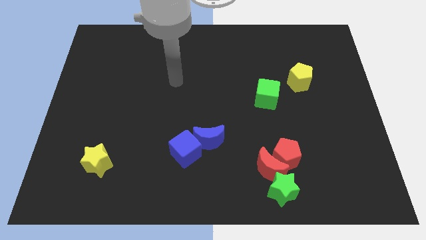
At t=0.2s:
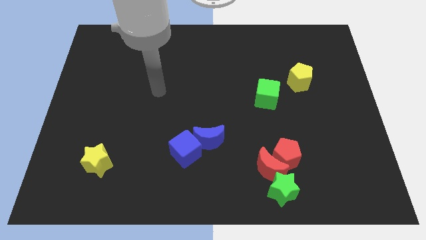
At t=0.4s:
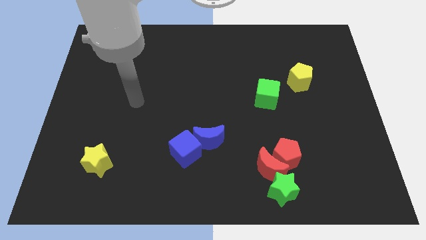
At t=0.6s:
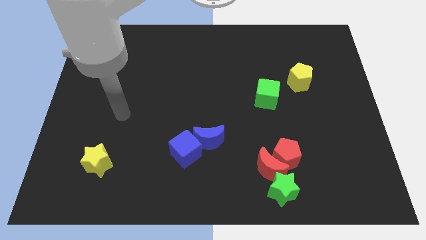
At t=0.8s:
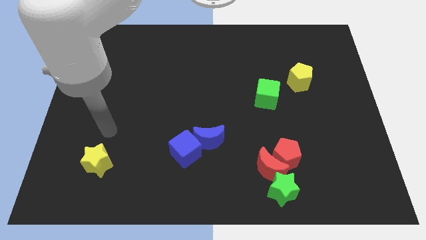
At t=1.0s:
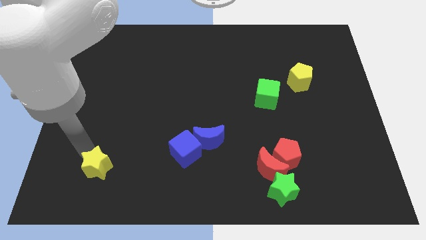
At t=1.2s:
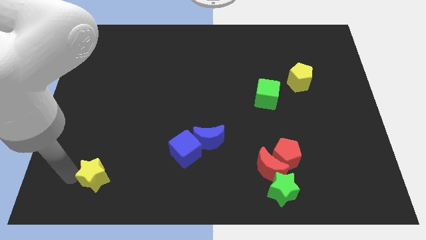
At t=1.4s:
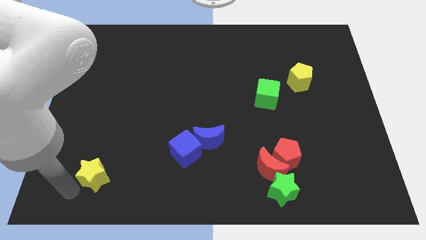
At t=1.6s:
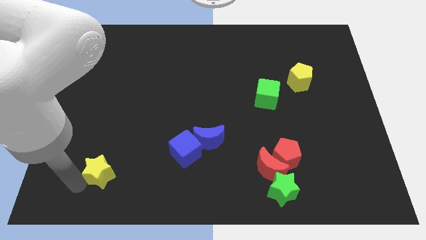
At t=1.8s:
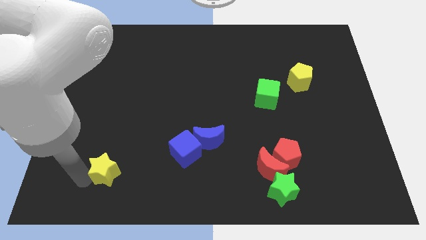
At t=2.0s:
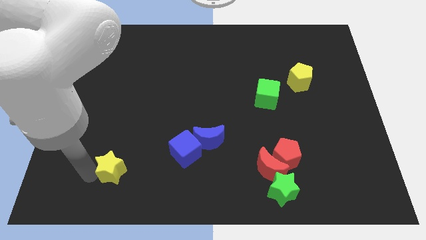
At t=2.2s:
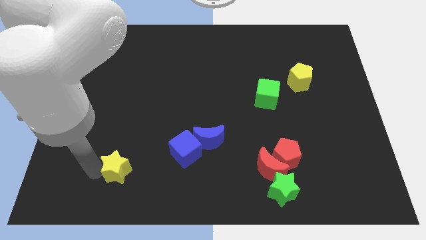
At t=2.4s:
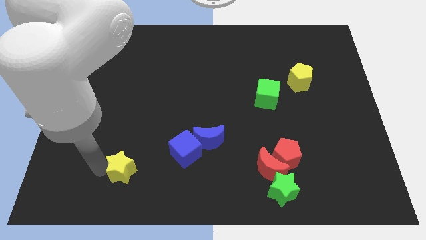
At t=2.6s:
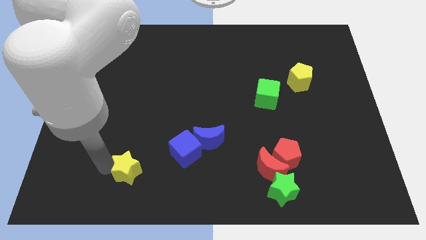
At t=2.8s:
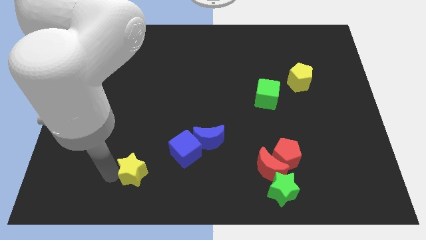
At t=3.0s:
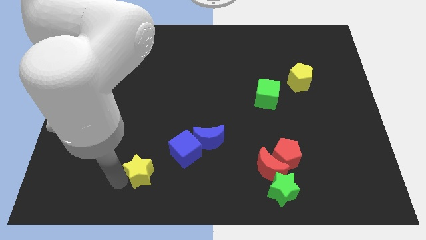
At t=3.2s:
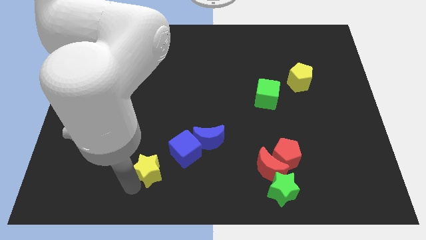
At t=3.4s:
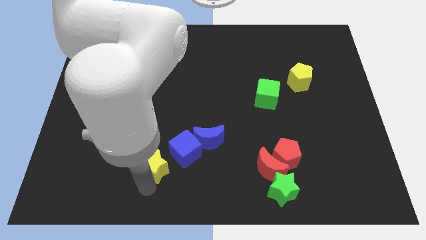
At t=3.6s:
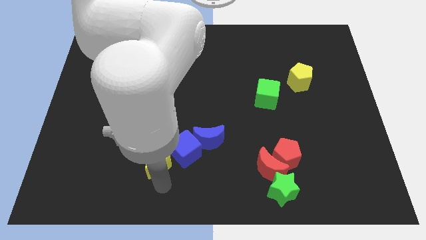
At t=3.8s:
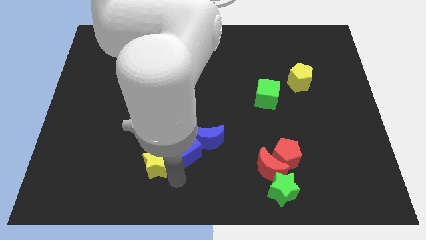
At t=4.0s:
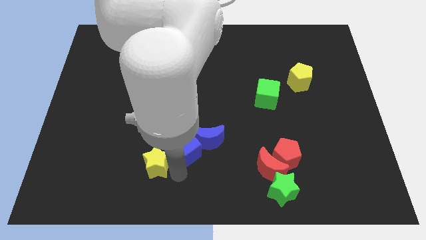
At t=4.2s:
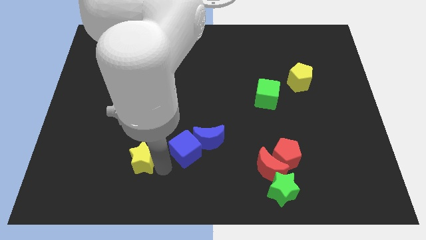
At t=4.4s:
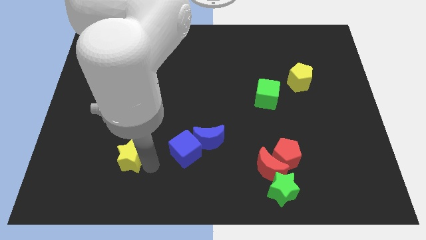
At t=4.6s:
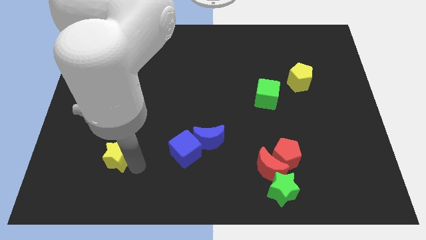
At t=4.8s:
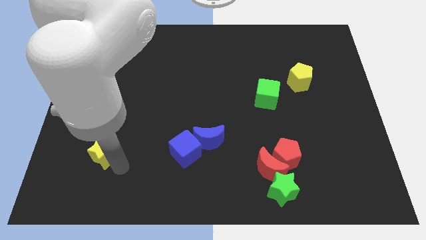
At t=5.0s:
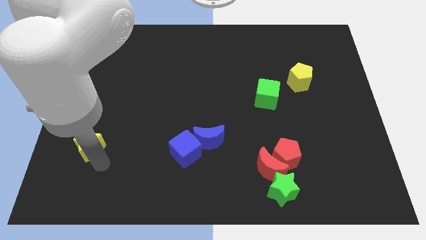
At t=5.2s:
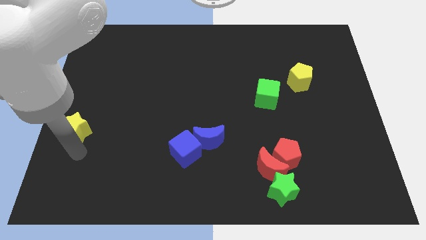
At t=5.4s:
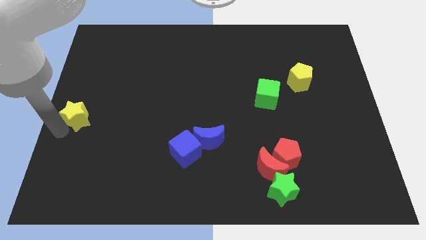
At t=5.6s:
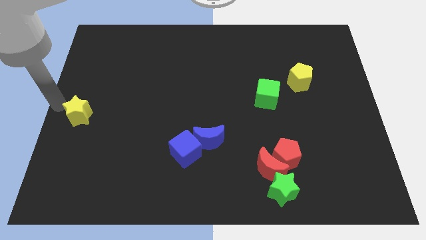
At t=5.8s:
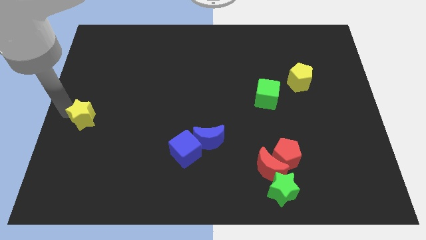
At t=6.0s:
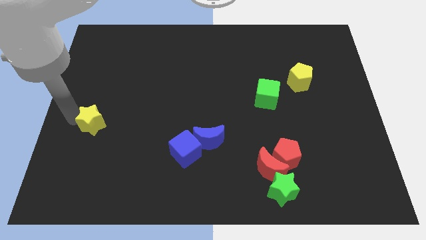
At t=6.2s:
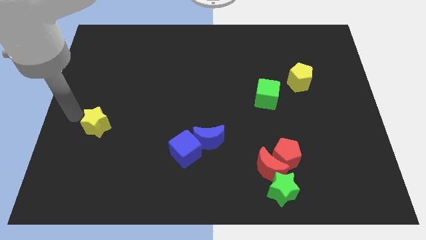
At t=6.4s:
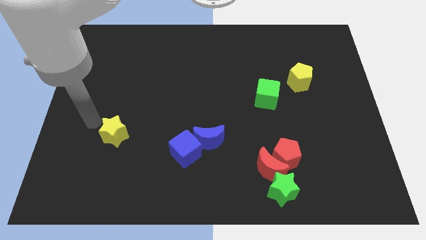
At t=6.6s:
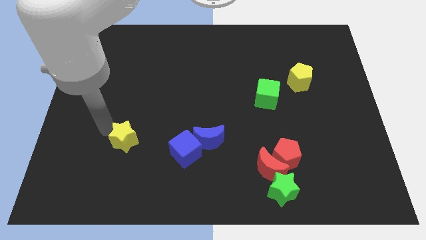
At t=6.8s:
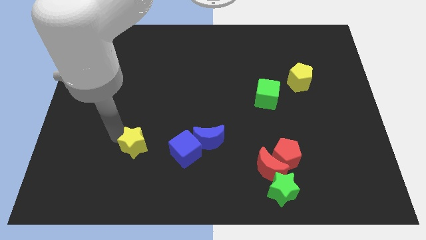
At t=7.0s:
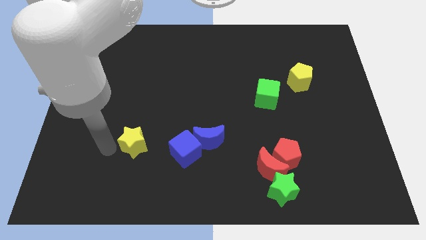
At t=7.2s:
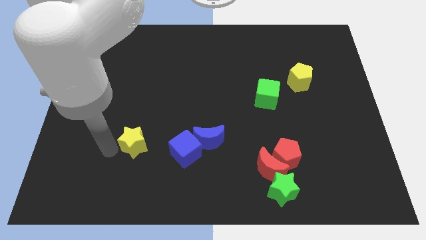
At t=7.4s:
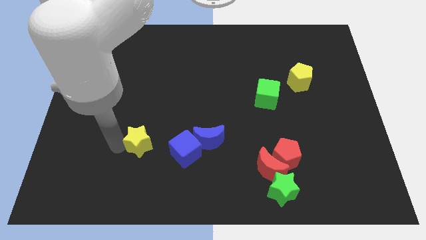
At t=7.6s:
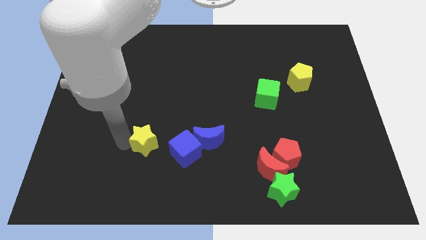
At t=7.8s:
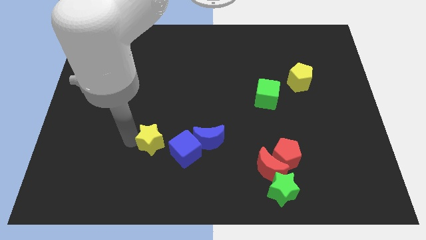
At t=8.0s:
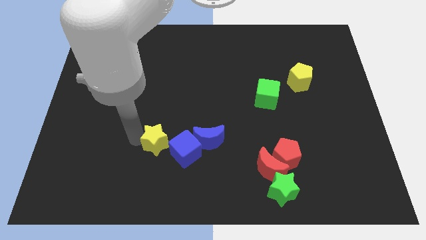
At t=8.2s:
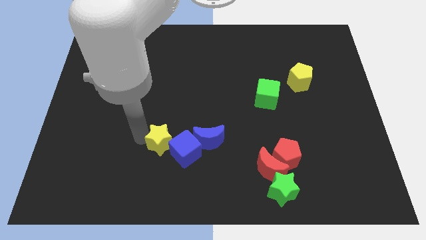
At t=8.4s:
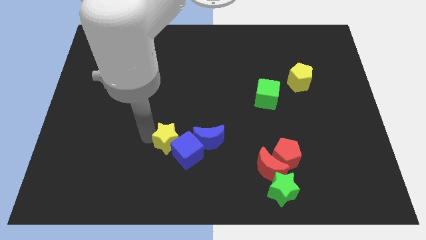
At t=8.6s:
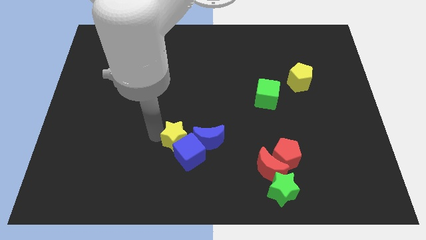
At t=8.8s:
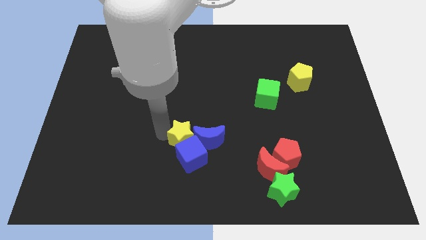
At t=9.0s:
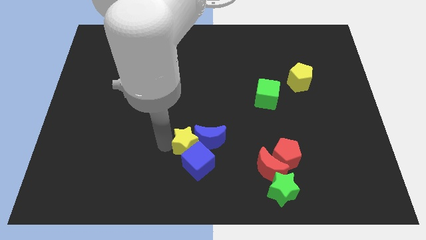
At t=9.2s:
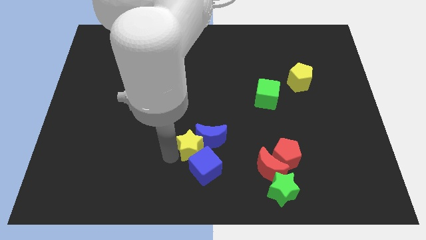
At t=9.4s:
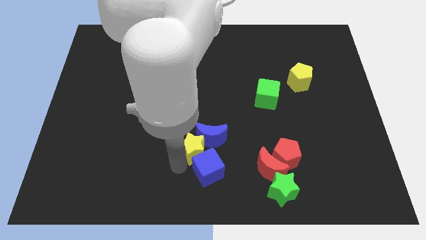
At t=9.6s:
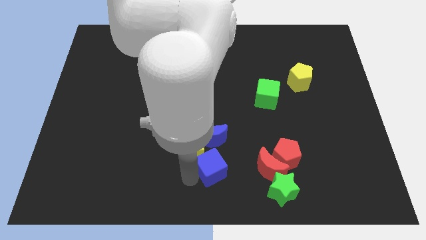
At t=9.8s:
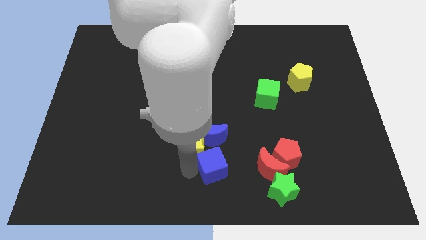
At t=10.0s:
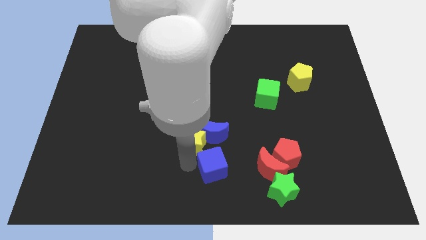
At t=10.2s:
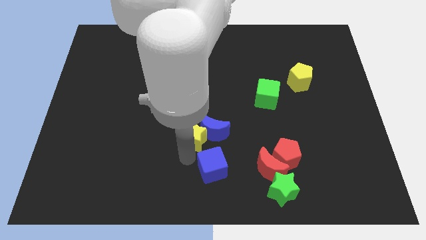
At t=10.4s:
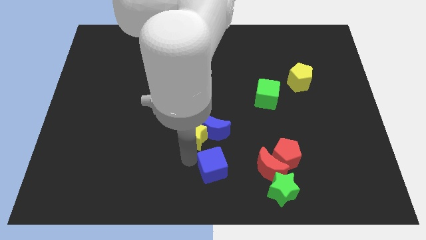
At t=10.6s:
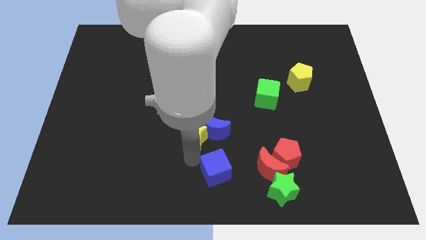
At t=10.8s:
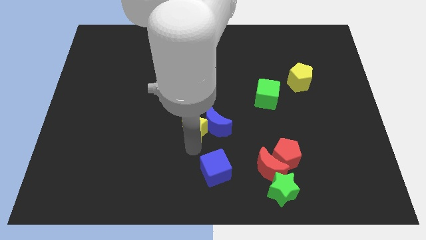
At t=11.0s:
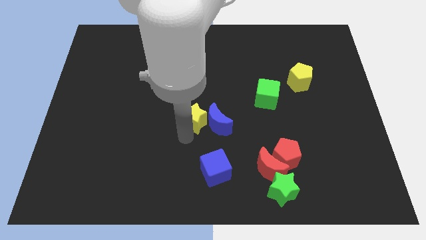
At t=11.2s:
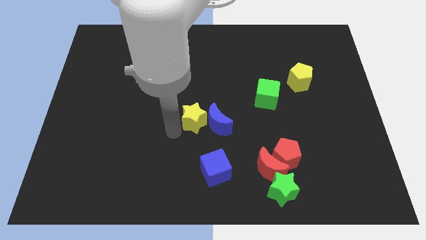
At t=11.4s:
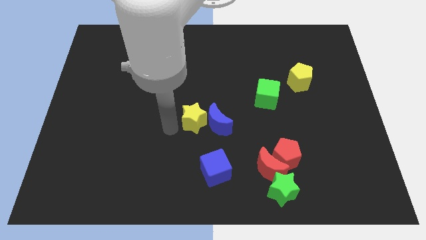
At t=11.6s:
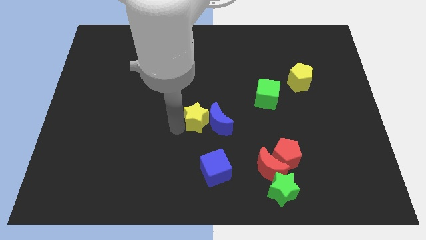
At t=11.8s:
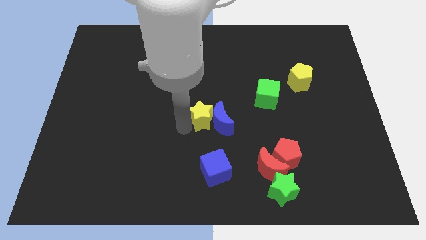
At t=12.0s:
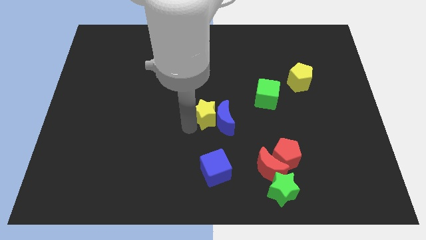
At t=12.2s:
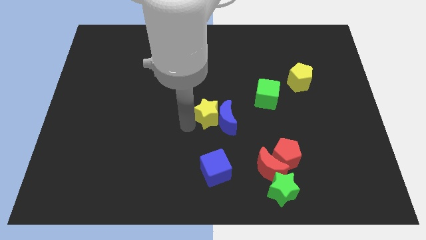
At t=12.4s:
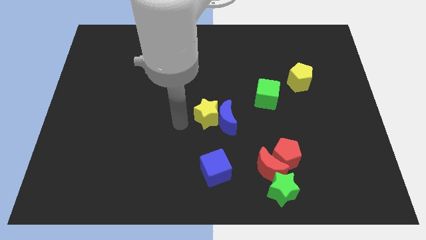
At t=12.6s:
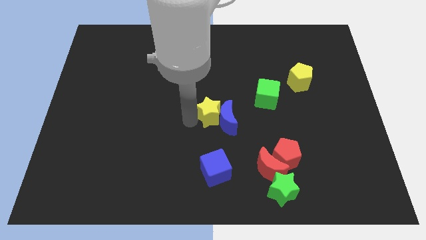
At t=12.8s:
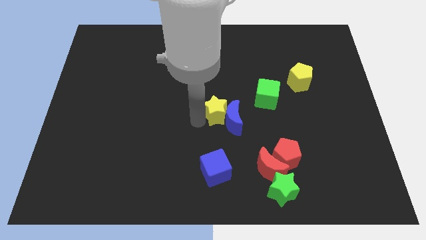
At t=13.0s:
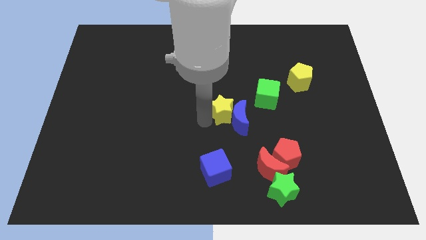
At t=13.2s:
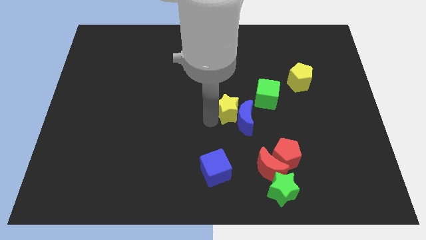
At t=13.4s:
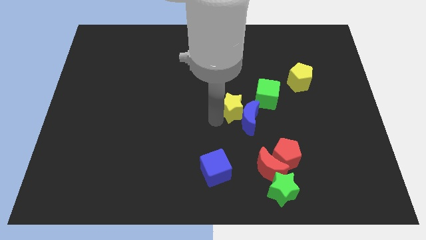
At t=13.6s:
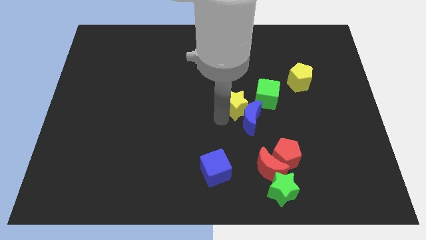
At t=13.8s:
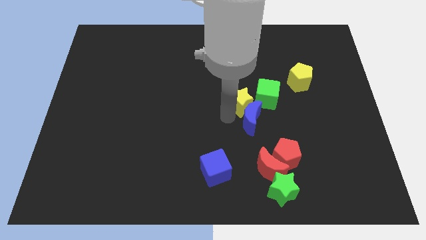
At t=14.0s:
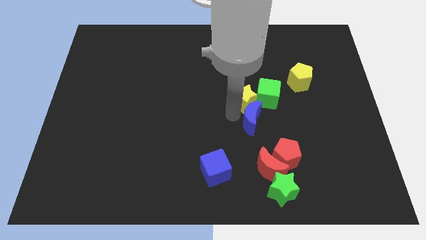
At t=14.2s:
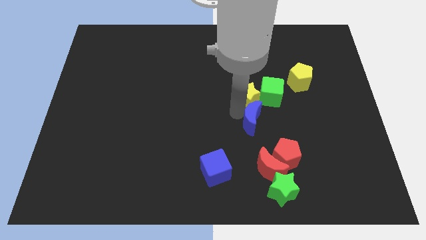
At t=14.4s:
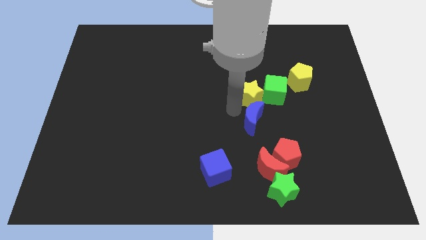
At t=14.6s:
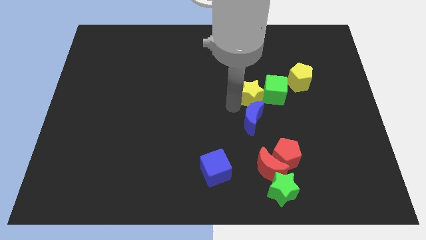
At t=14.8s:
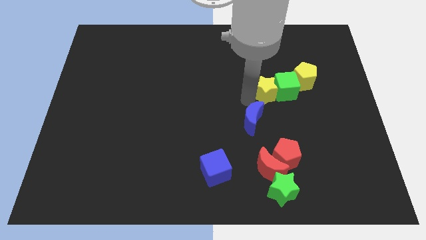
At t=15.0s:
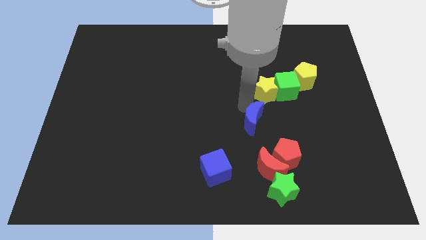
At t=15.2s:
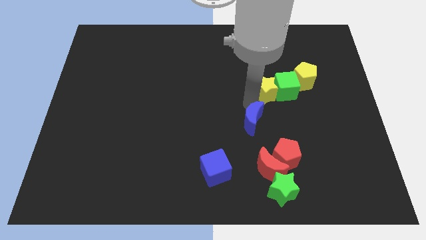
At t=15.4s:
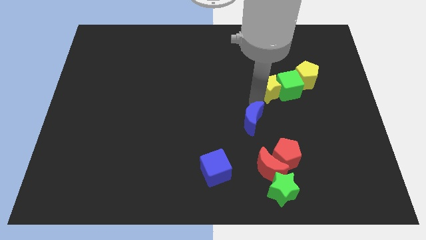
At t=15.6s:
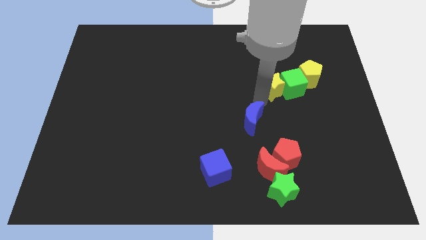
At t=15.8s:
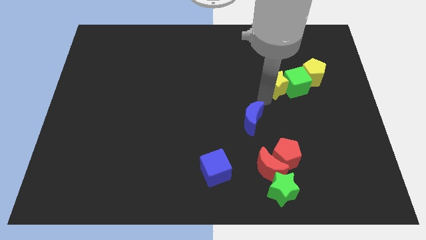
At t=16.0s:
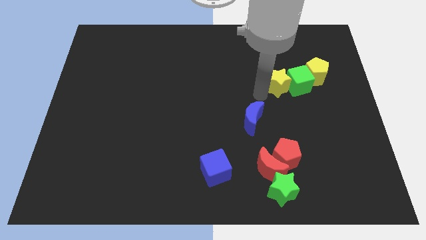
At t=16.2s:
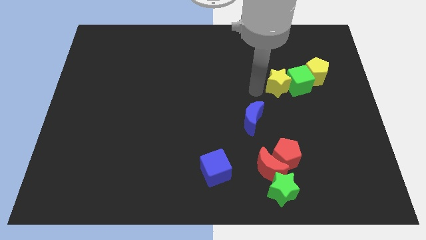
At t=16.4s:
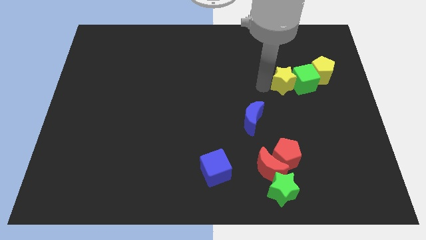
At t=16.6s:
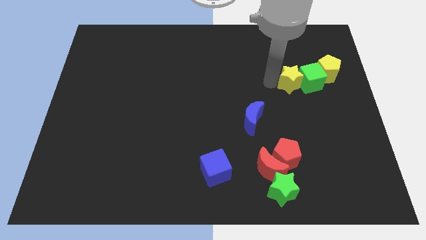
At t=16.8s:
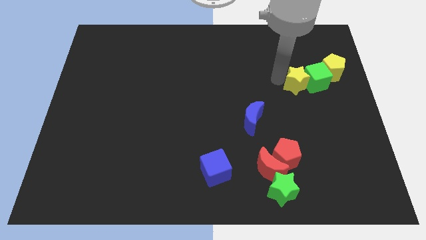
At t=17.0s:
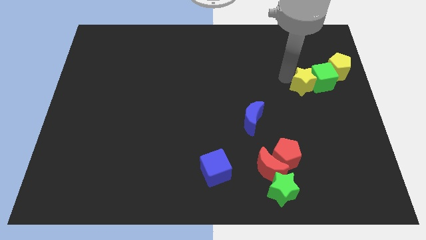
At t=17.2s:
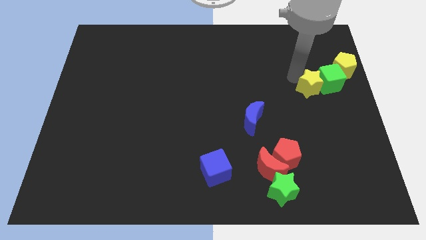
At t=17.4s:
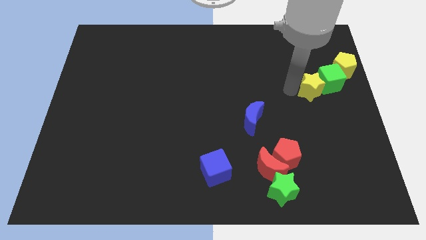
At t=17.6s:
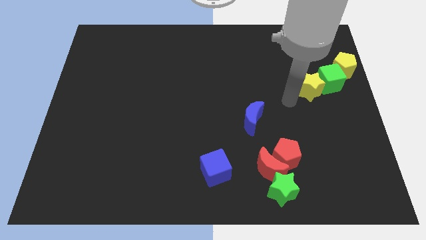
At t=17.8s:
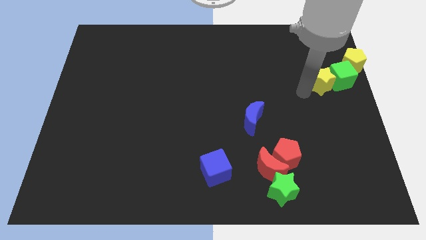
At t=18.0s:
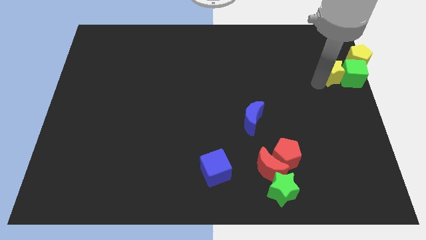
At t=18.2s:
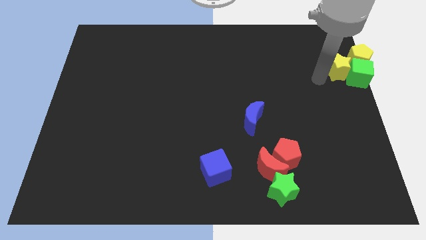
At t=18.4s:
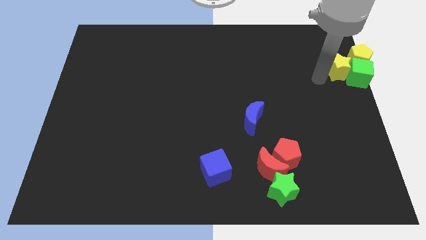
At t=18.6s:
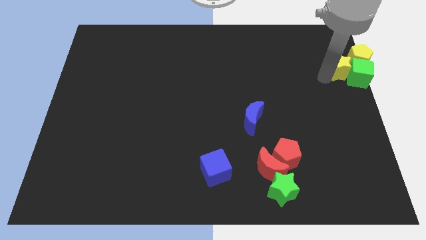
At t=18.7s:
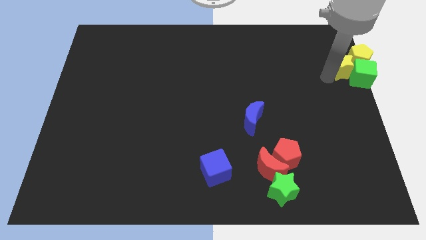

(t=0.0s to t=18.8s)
push the yellow star to the yellow pentagon
